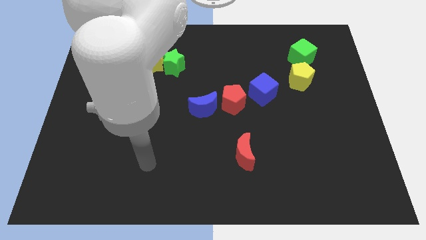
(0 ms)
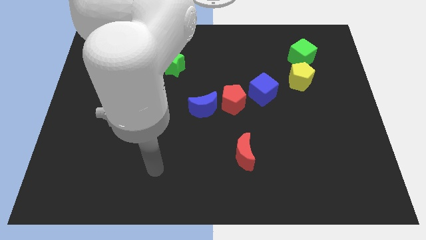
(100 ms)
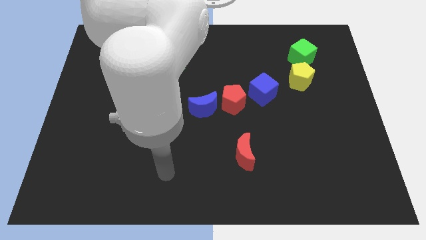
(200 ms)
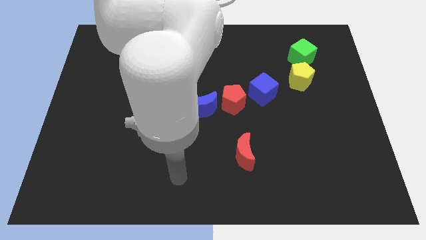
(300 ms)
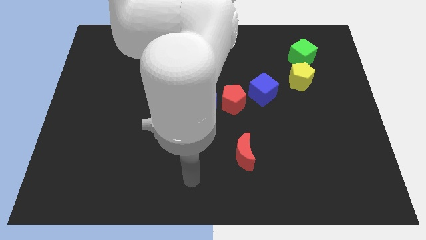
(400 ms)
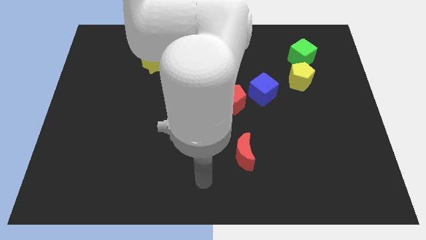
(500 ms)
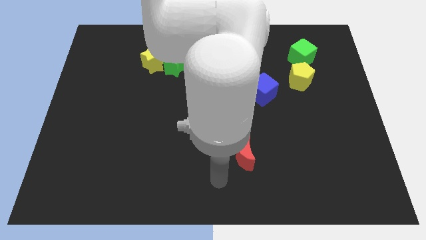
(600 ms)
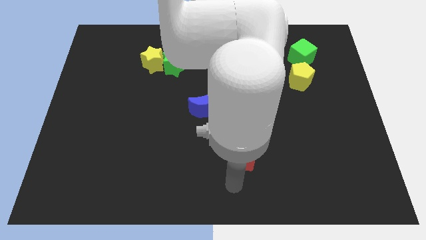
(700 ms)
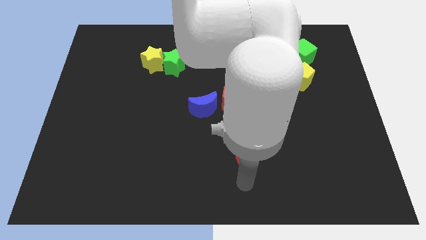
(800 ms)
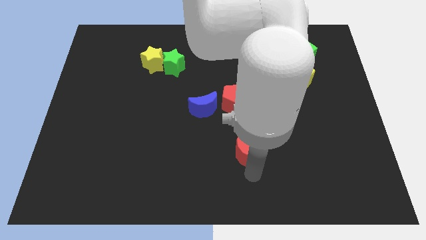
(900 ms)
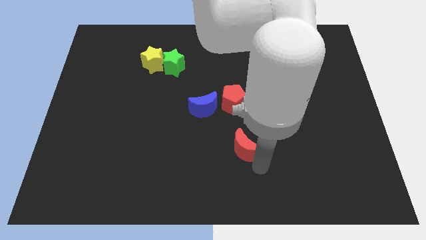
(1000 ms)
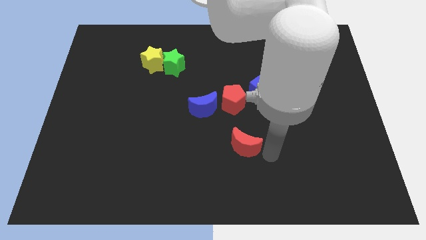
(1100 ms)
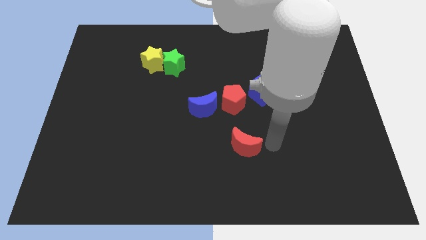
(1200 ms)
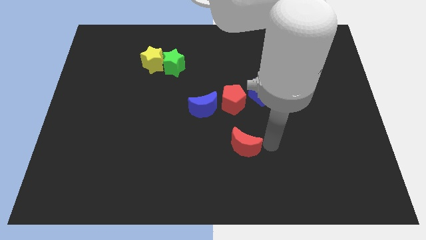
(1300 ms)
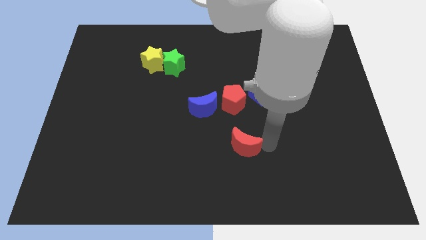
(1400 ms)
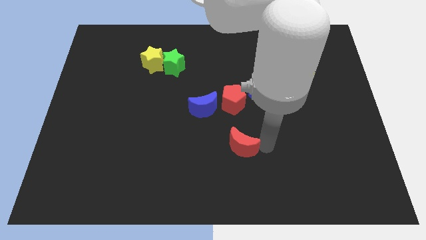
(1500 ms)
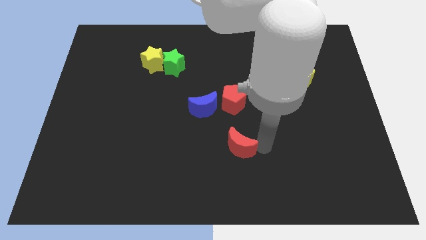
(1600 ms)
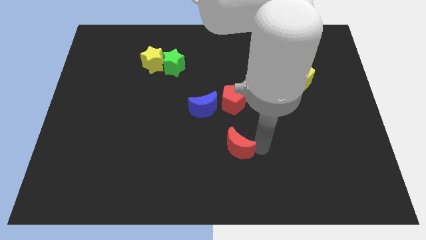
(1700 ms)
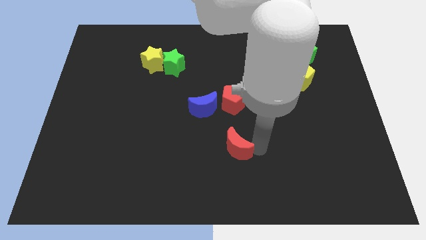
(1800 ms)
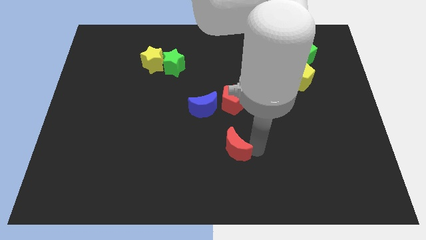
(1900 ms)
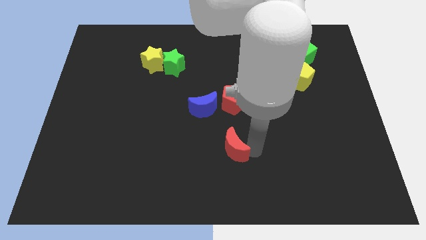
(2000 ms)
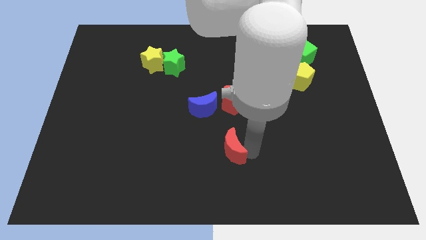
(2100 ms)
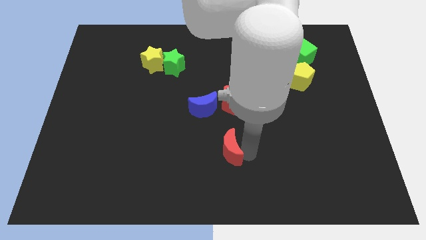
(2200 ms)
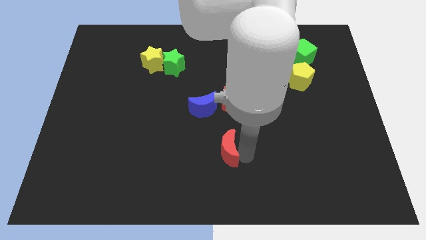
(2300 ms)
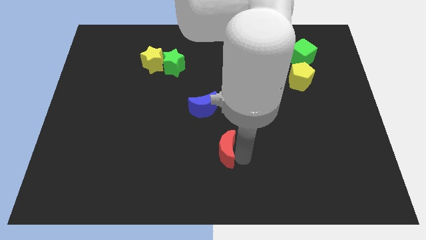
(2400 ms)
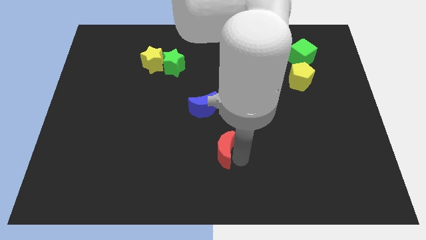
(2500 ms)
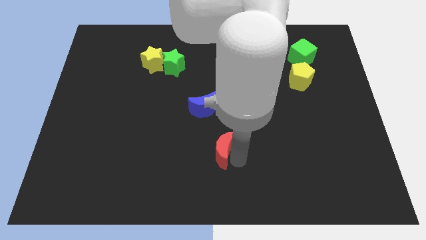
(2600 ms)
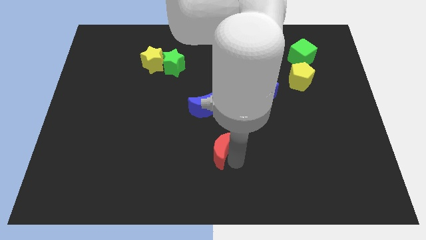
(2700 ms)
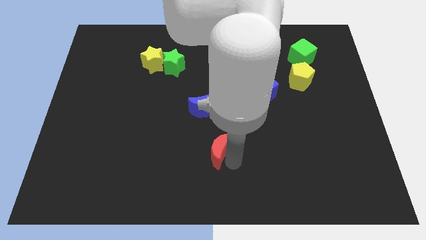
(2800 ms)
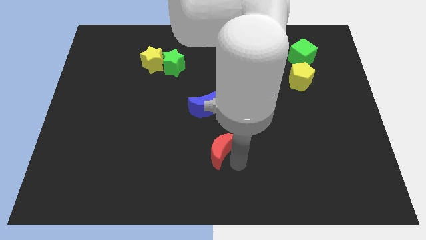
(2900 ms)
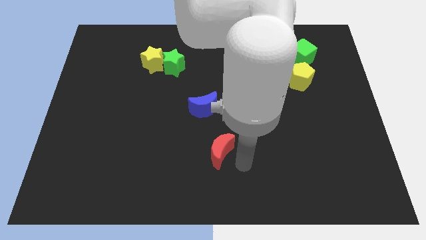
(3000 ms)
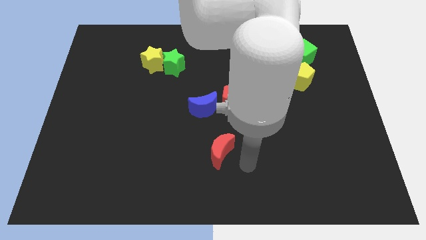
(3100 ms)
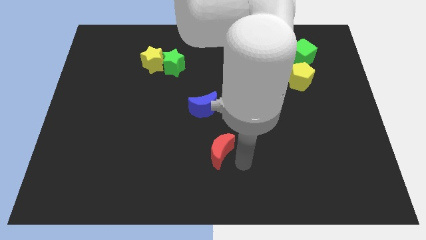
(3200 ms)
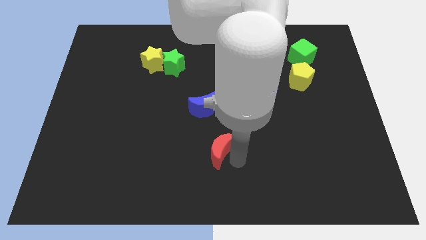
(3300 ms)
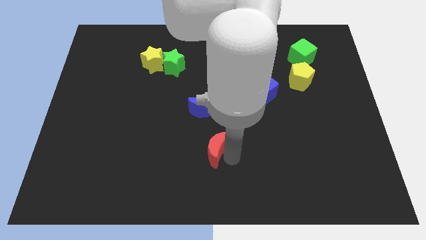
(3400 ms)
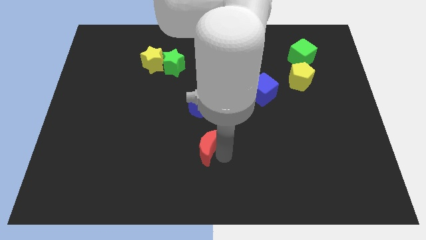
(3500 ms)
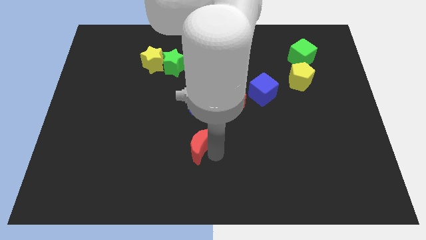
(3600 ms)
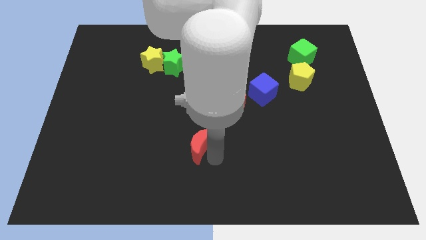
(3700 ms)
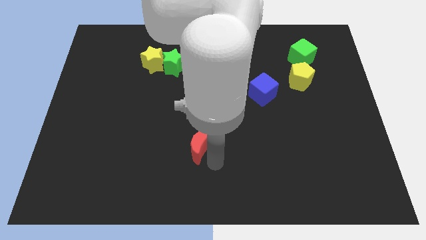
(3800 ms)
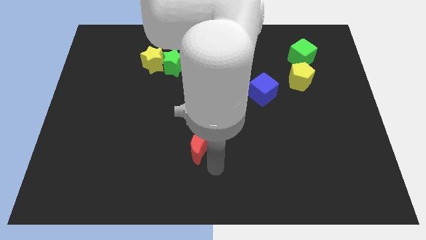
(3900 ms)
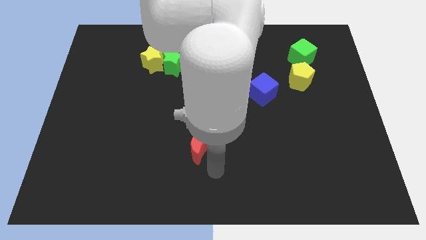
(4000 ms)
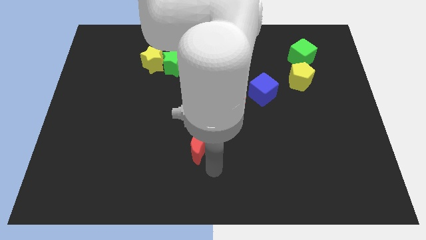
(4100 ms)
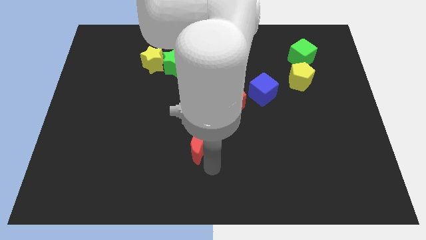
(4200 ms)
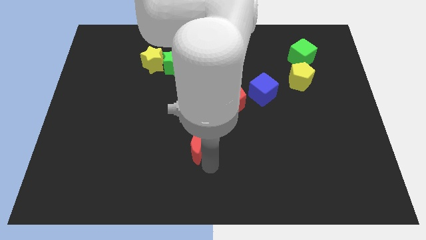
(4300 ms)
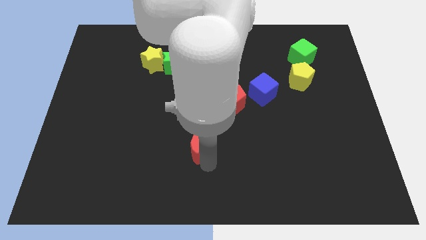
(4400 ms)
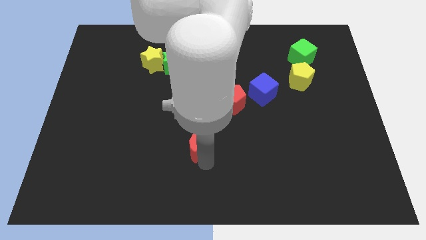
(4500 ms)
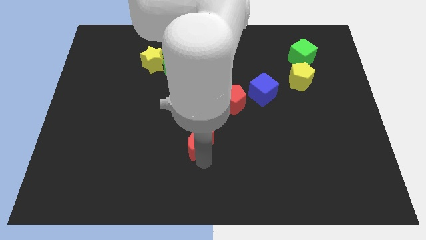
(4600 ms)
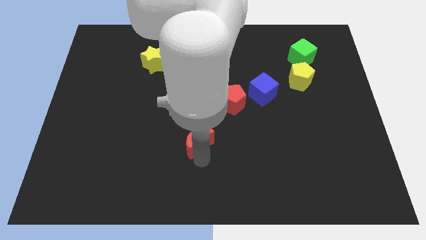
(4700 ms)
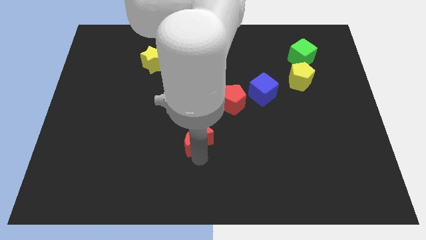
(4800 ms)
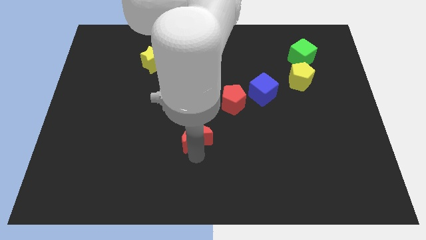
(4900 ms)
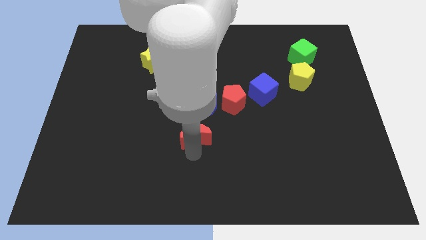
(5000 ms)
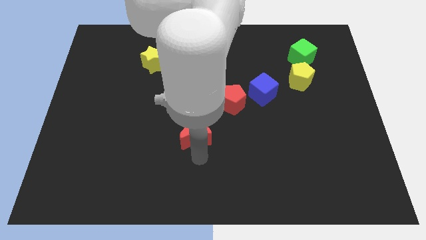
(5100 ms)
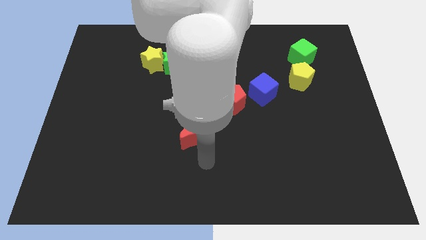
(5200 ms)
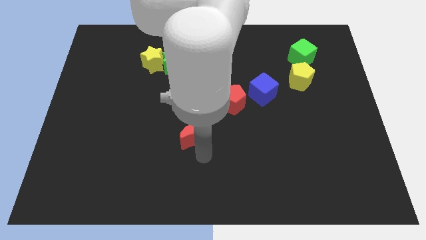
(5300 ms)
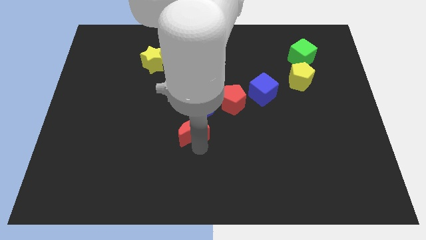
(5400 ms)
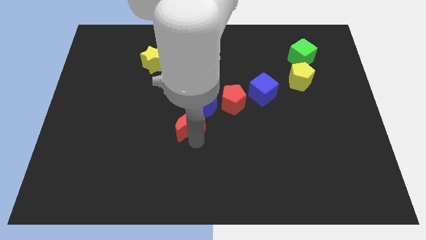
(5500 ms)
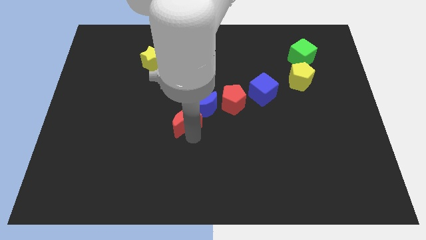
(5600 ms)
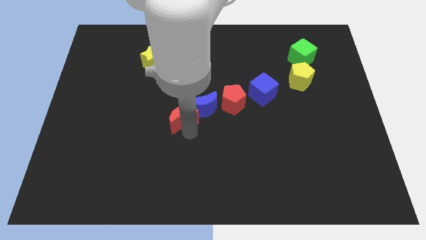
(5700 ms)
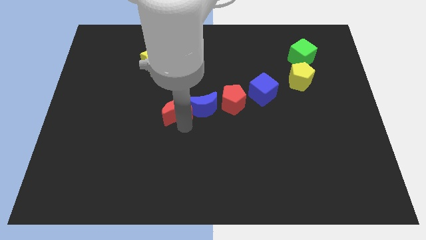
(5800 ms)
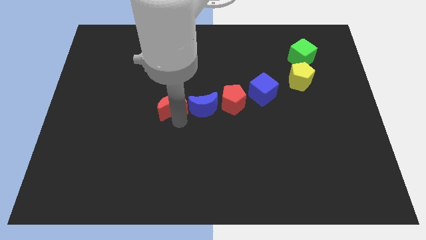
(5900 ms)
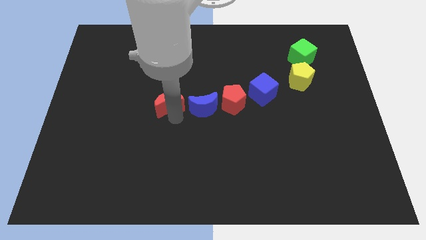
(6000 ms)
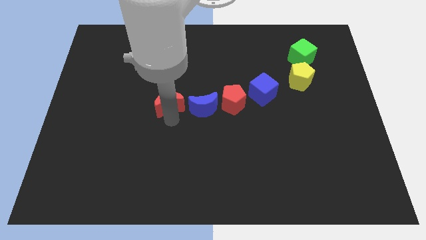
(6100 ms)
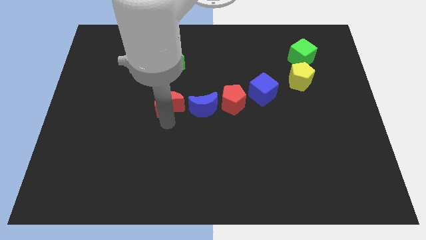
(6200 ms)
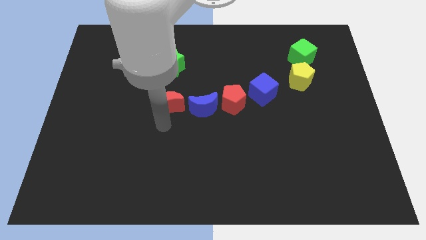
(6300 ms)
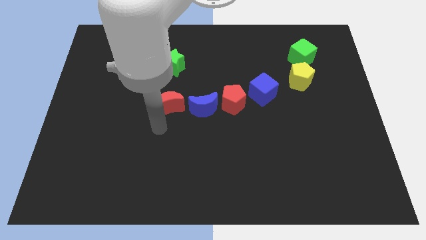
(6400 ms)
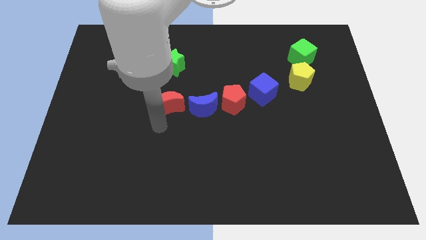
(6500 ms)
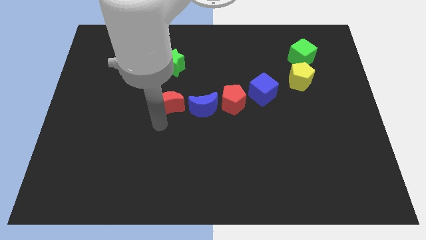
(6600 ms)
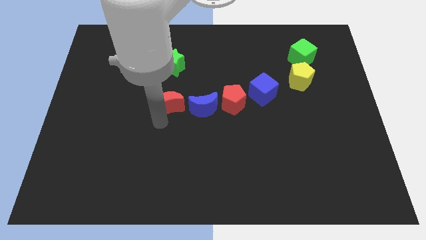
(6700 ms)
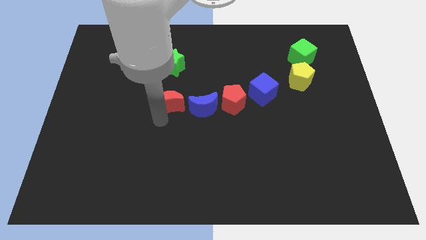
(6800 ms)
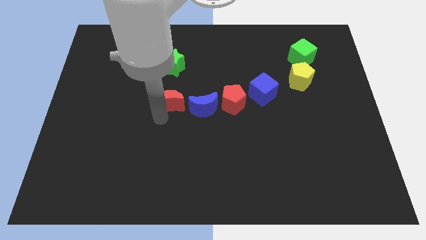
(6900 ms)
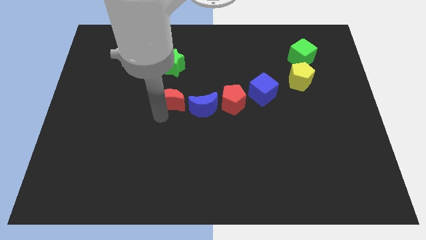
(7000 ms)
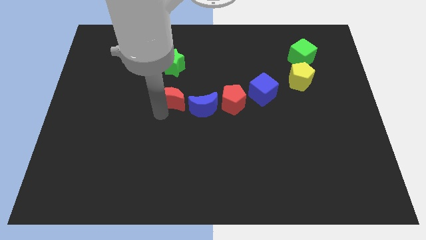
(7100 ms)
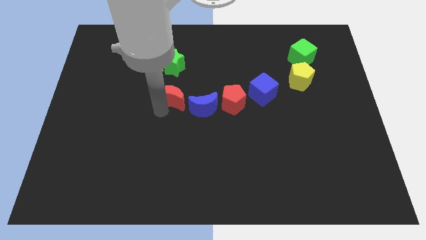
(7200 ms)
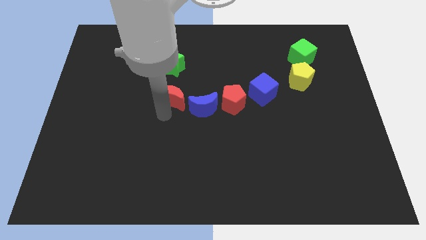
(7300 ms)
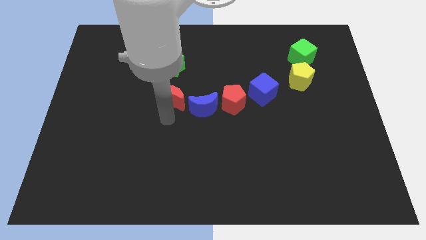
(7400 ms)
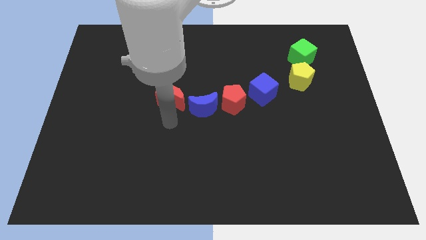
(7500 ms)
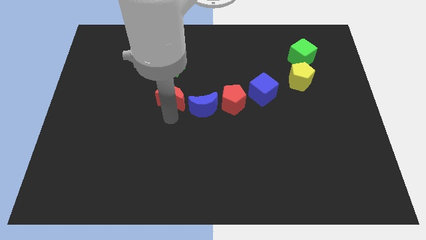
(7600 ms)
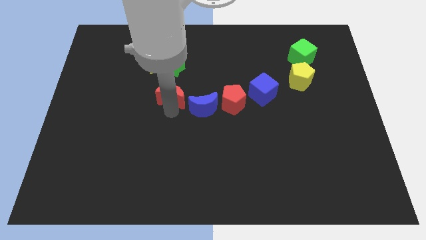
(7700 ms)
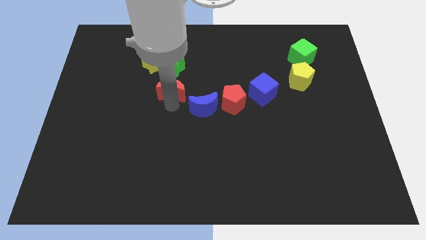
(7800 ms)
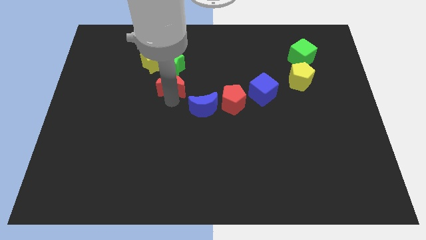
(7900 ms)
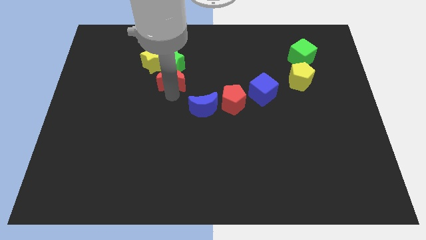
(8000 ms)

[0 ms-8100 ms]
slide the red moon close to the green star
